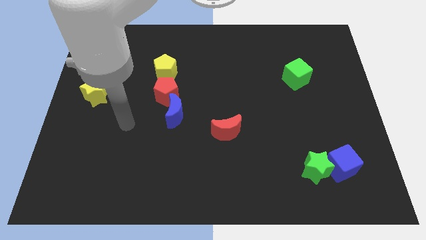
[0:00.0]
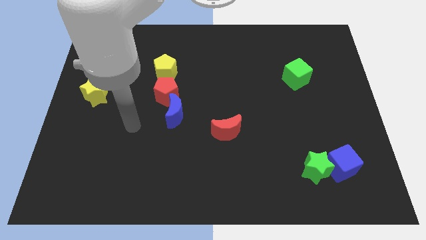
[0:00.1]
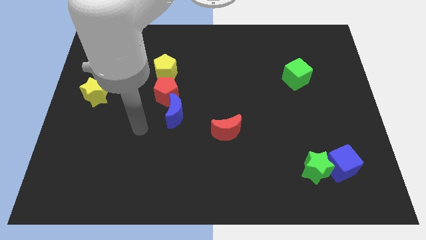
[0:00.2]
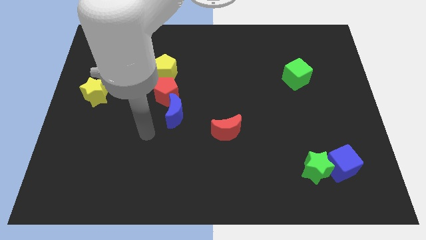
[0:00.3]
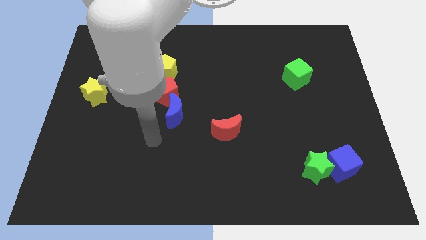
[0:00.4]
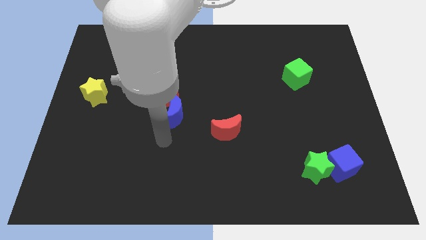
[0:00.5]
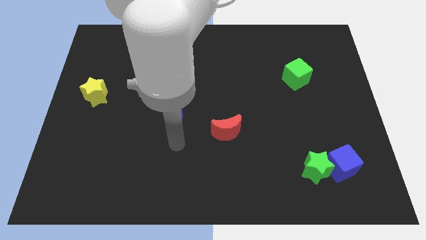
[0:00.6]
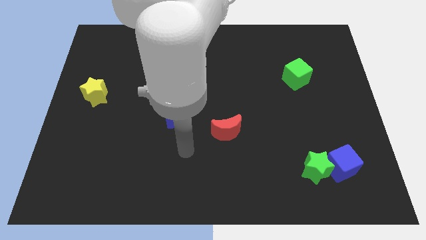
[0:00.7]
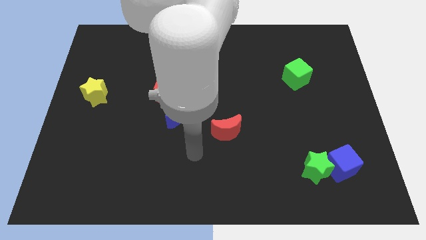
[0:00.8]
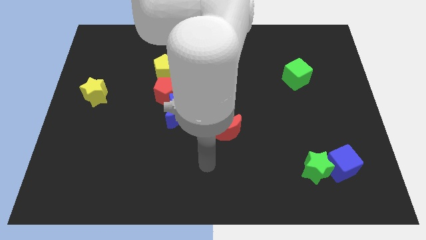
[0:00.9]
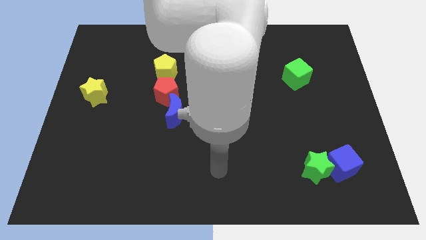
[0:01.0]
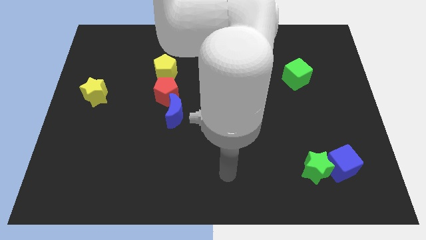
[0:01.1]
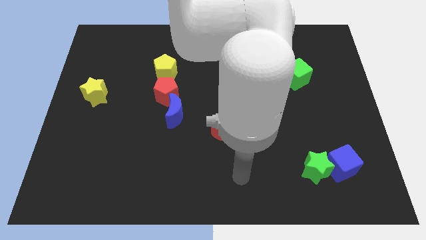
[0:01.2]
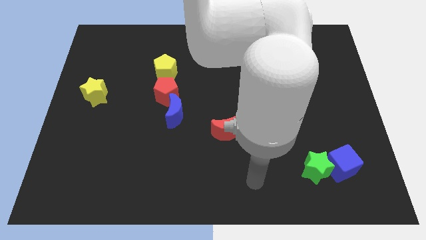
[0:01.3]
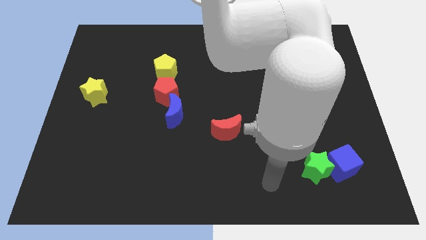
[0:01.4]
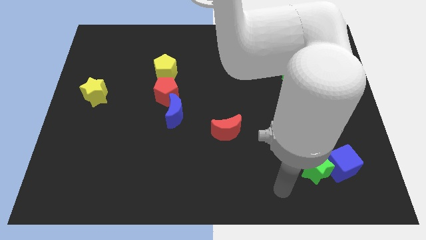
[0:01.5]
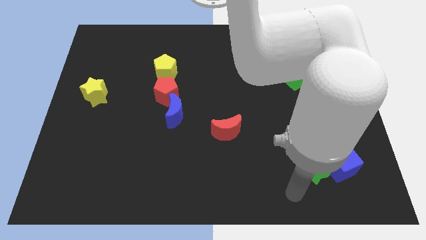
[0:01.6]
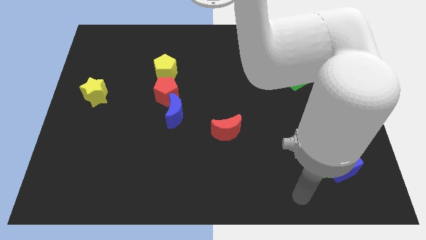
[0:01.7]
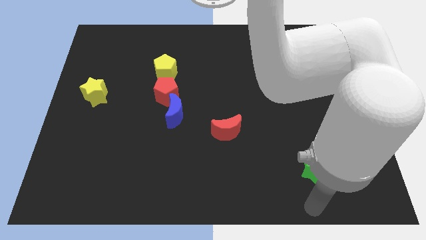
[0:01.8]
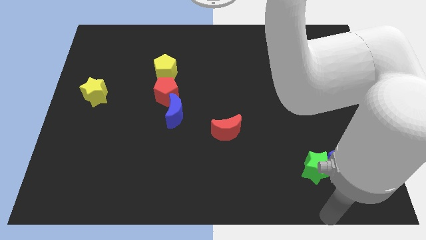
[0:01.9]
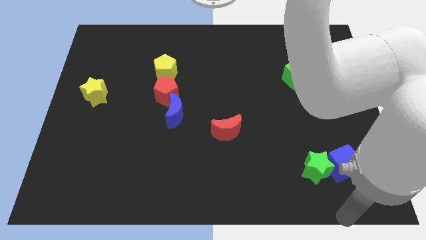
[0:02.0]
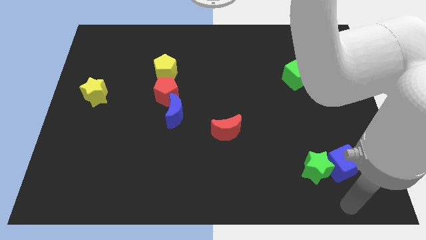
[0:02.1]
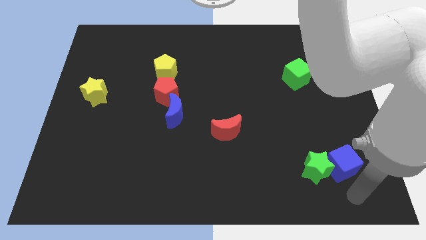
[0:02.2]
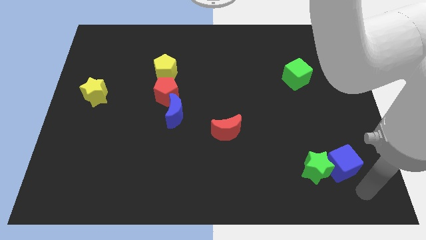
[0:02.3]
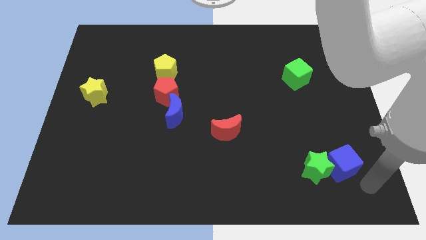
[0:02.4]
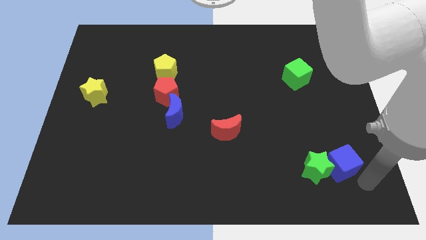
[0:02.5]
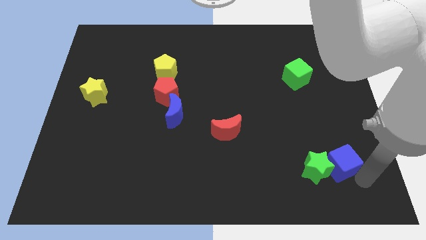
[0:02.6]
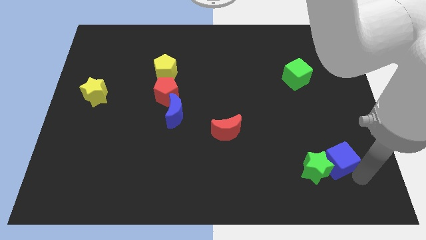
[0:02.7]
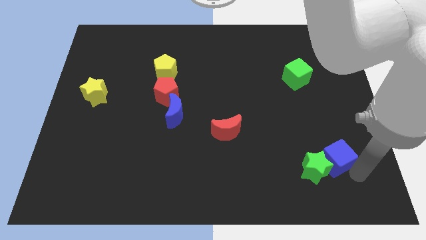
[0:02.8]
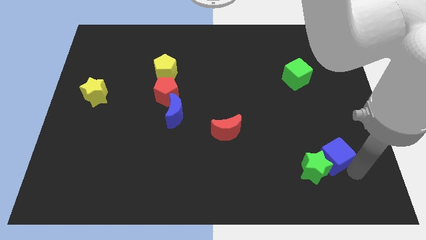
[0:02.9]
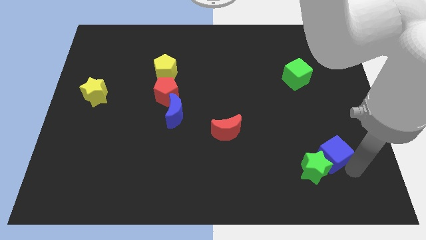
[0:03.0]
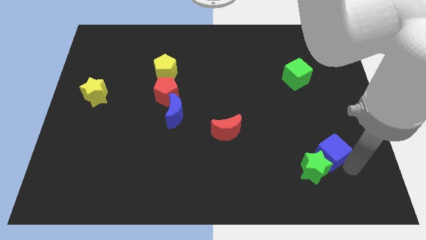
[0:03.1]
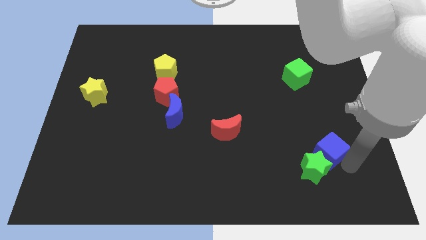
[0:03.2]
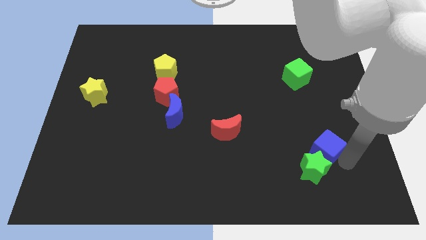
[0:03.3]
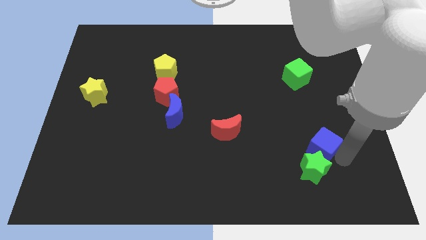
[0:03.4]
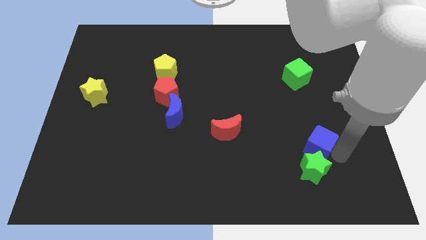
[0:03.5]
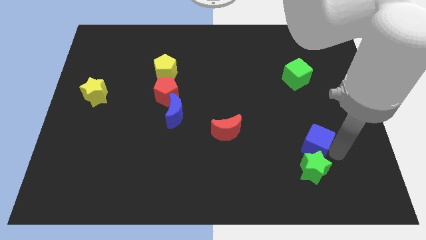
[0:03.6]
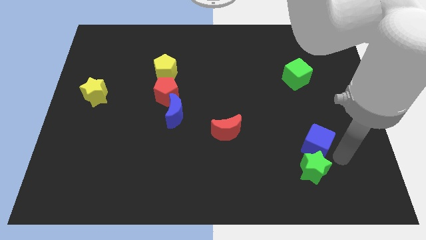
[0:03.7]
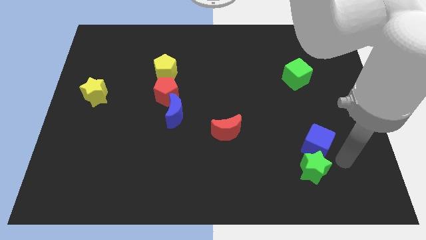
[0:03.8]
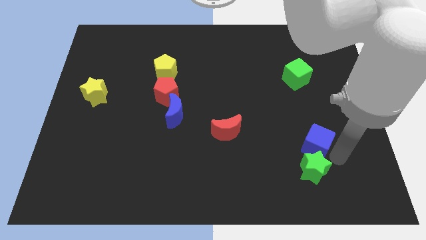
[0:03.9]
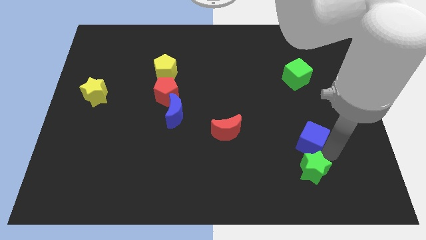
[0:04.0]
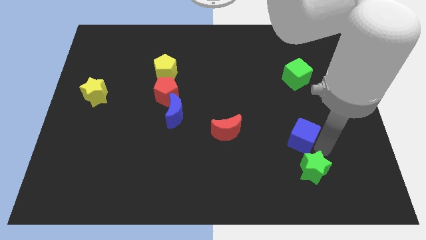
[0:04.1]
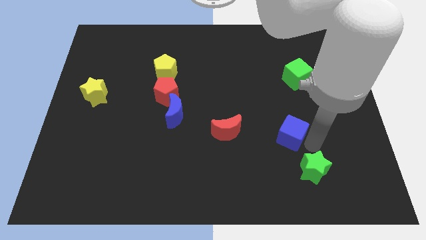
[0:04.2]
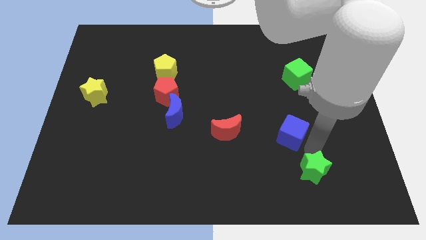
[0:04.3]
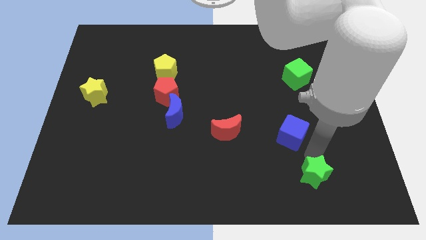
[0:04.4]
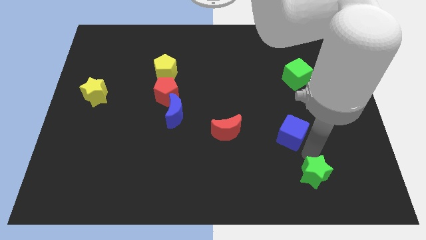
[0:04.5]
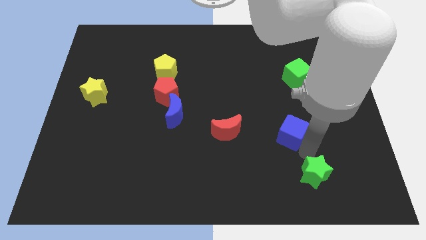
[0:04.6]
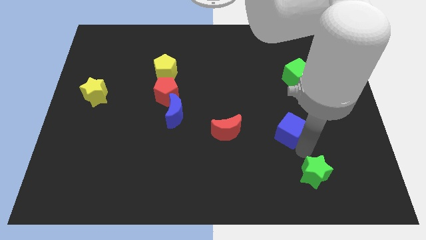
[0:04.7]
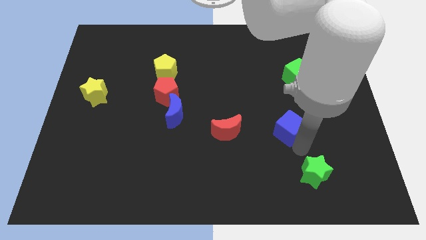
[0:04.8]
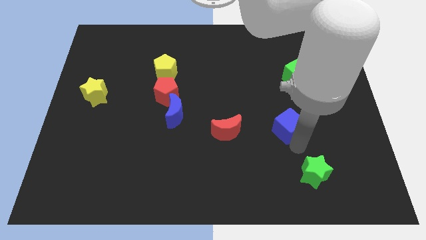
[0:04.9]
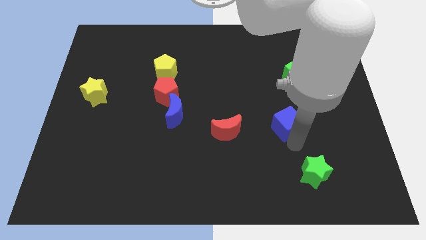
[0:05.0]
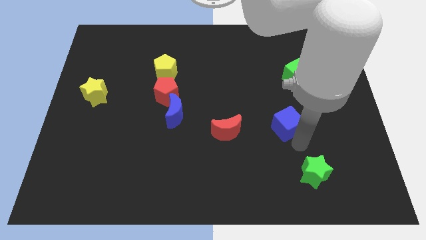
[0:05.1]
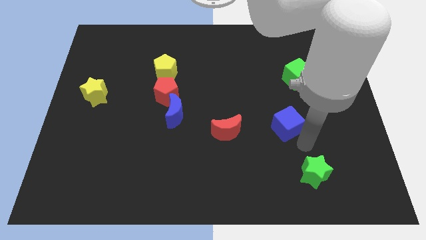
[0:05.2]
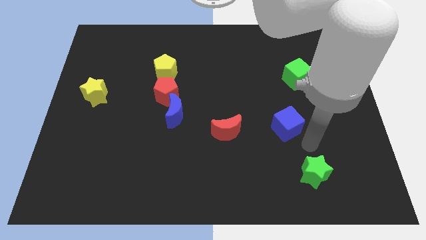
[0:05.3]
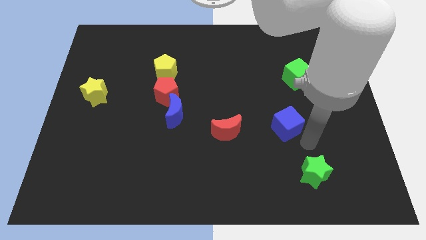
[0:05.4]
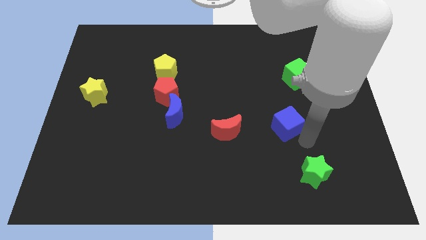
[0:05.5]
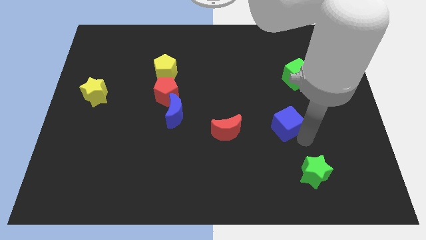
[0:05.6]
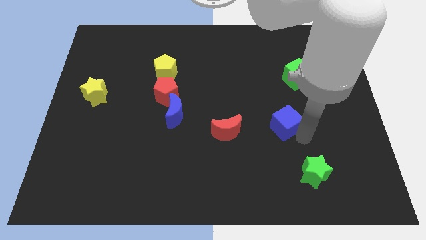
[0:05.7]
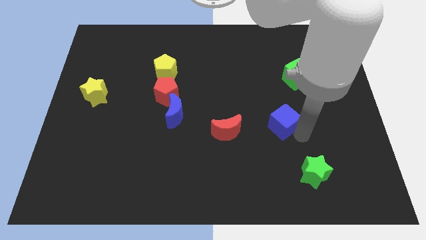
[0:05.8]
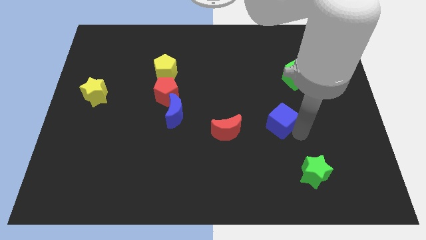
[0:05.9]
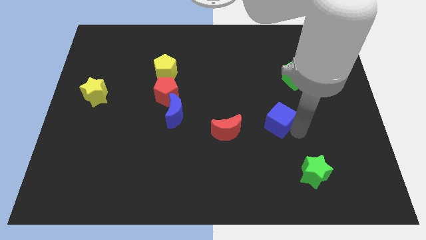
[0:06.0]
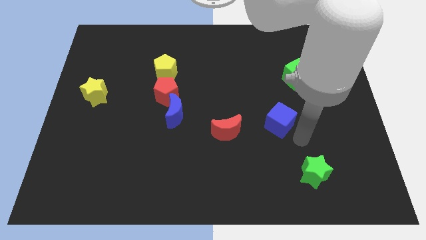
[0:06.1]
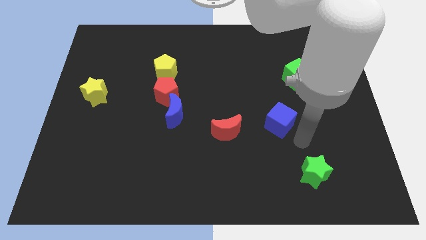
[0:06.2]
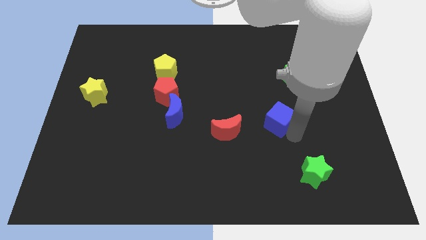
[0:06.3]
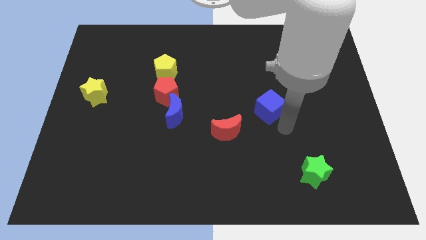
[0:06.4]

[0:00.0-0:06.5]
move the blue cube diagonally up and to the left

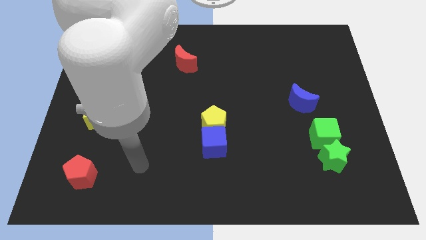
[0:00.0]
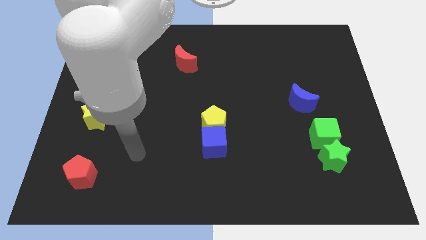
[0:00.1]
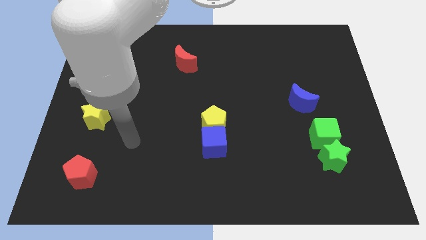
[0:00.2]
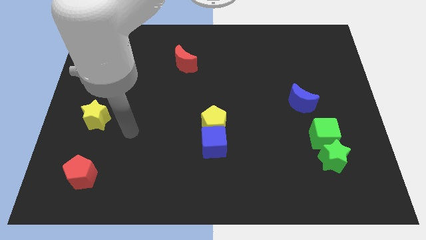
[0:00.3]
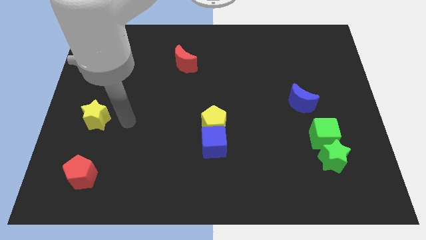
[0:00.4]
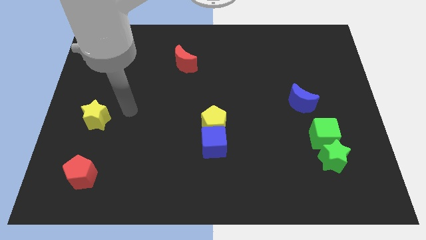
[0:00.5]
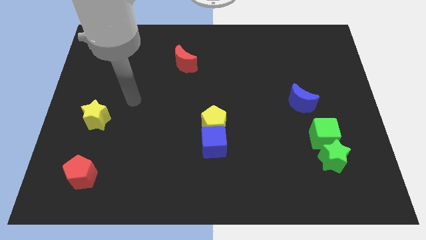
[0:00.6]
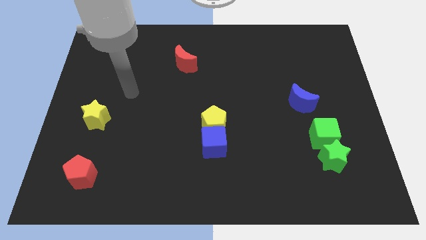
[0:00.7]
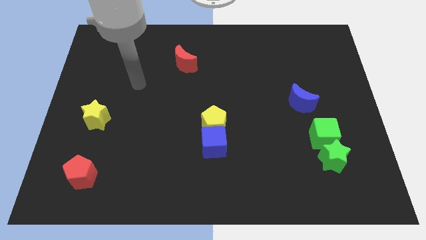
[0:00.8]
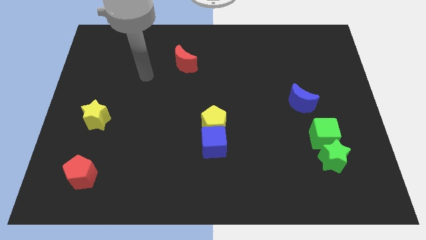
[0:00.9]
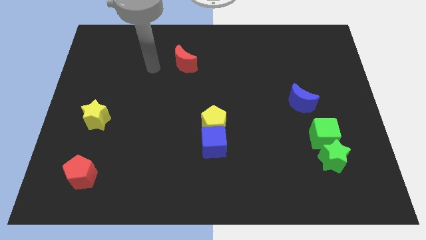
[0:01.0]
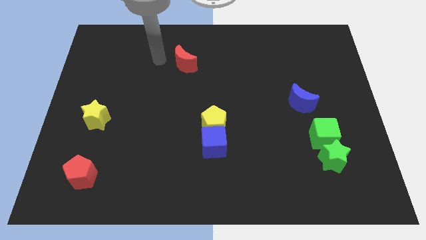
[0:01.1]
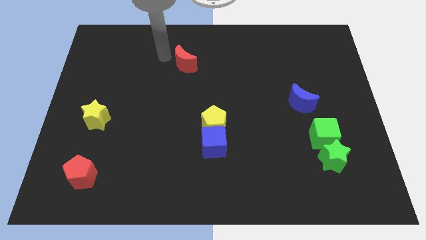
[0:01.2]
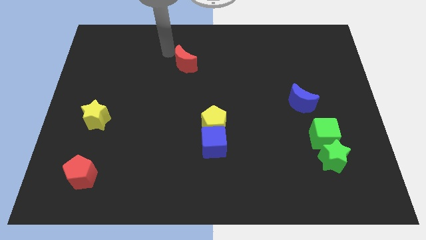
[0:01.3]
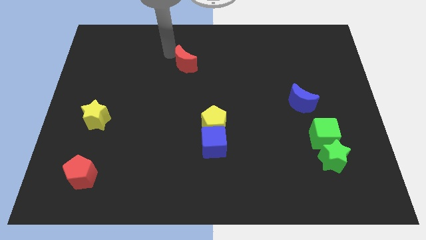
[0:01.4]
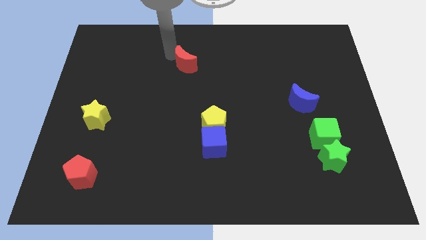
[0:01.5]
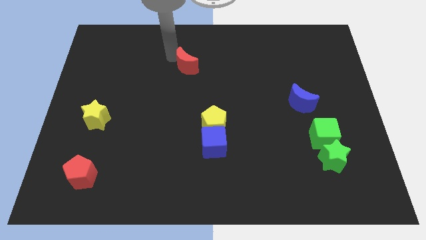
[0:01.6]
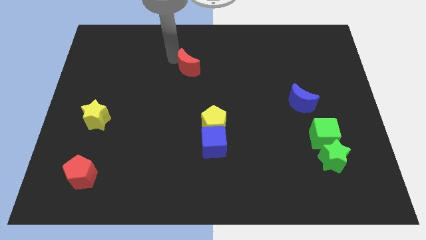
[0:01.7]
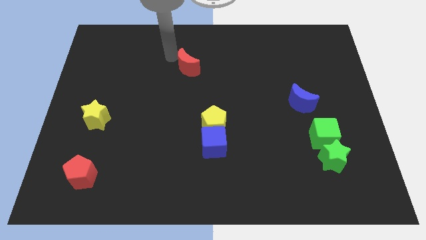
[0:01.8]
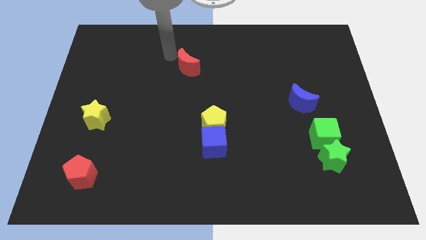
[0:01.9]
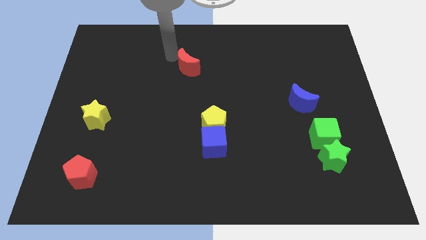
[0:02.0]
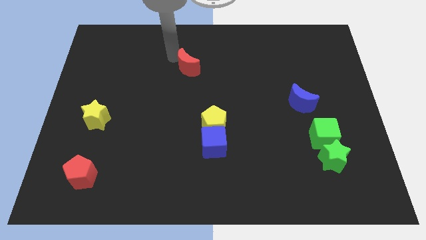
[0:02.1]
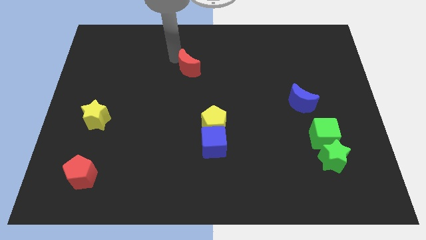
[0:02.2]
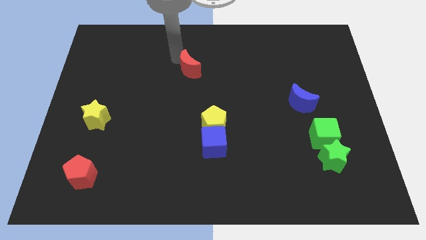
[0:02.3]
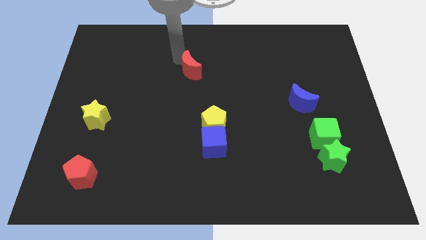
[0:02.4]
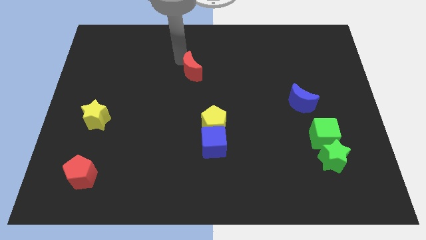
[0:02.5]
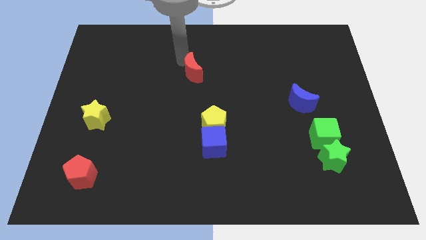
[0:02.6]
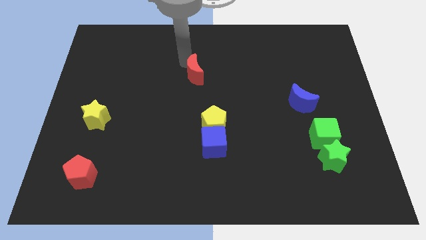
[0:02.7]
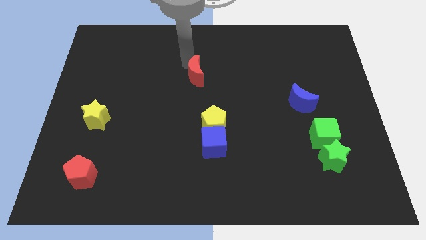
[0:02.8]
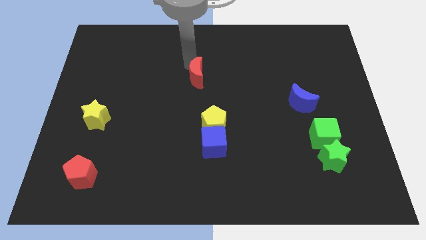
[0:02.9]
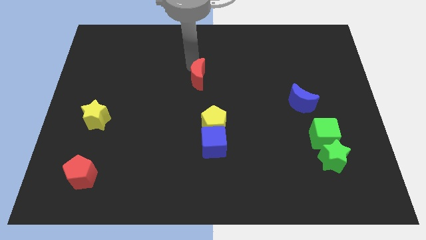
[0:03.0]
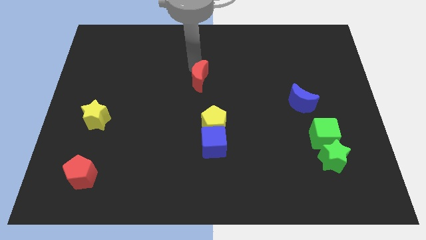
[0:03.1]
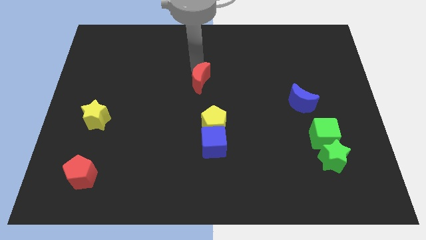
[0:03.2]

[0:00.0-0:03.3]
push the red moon down and then to the right a little
